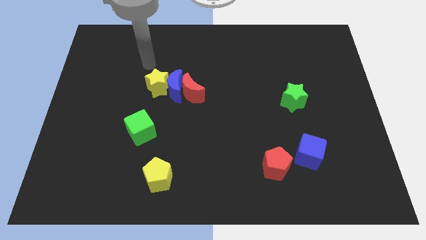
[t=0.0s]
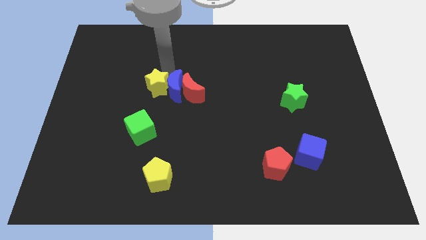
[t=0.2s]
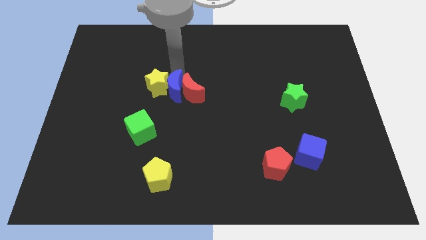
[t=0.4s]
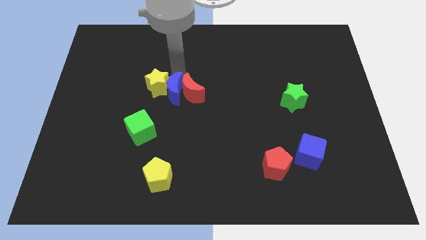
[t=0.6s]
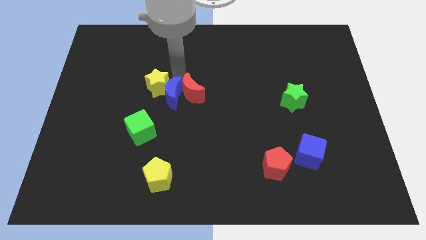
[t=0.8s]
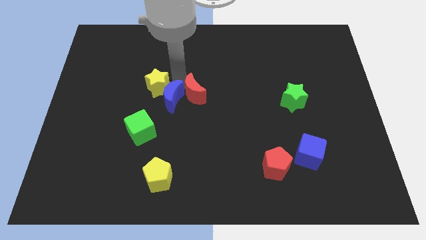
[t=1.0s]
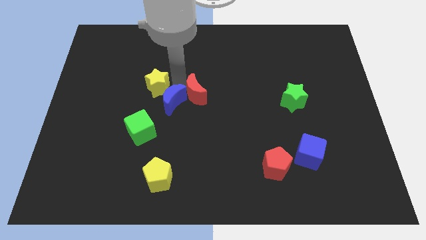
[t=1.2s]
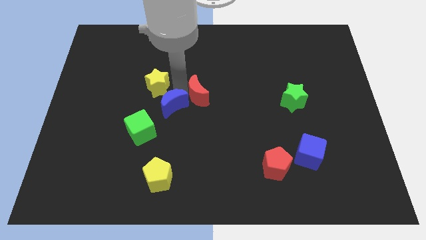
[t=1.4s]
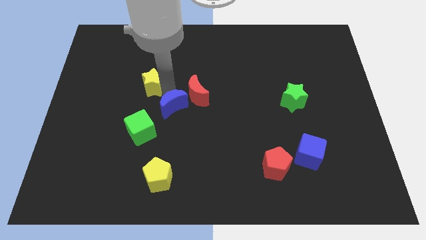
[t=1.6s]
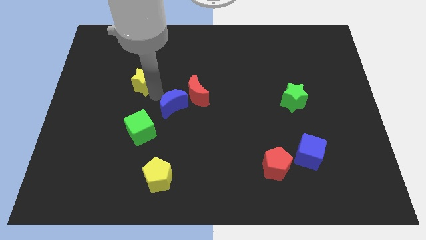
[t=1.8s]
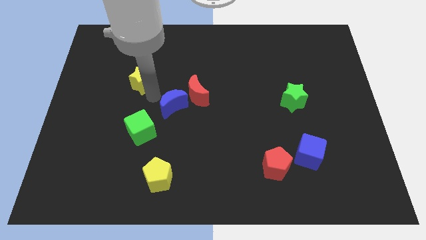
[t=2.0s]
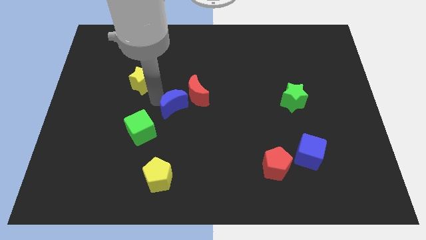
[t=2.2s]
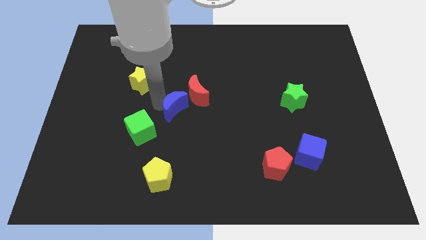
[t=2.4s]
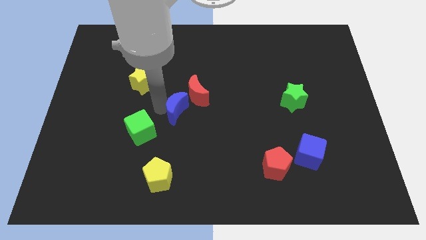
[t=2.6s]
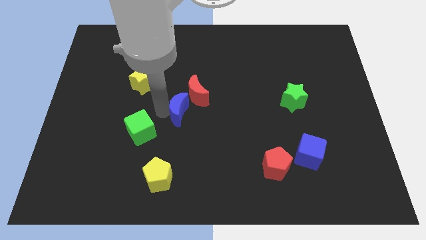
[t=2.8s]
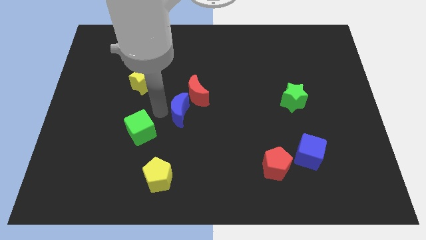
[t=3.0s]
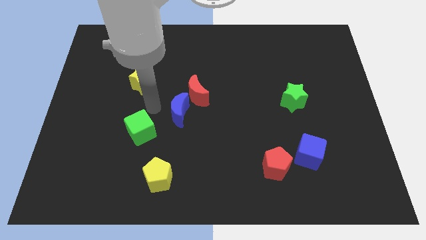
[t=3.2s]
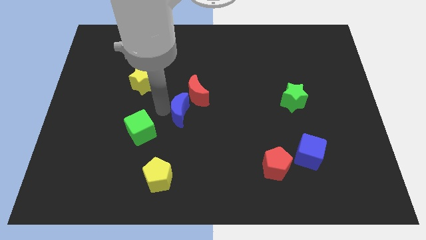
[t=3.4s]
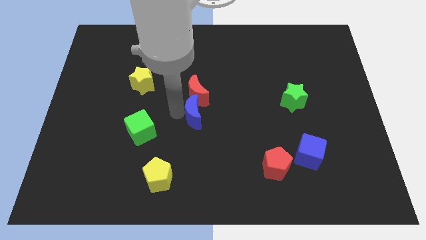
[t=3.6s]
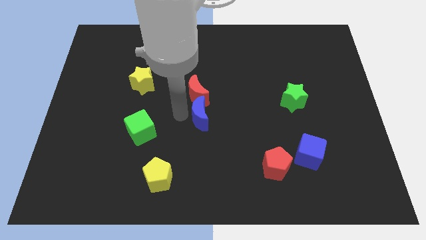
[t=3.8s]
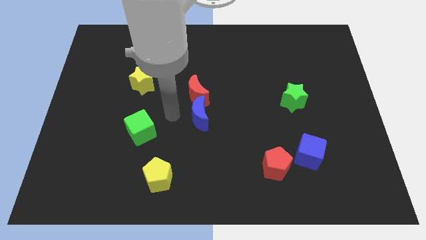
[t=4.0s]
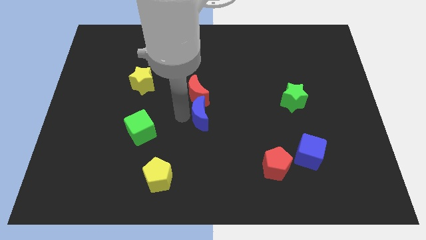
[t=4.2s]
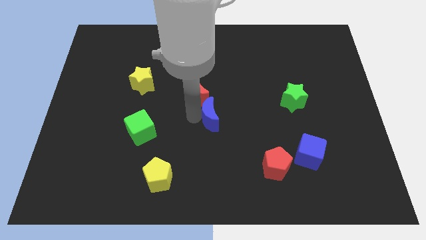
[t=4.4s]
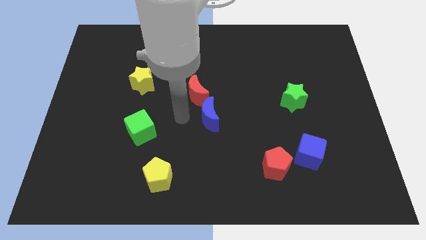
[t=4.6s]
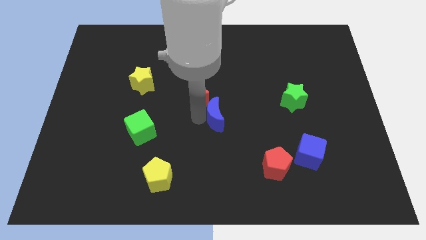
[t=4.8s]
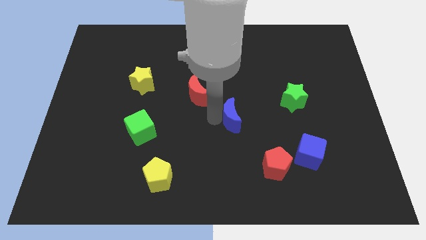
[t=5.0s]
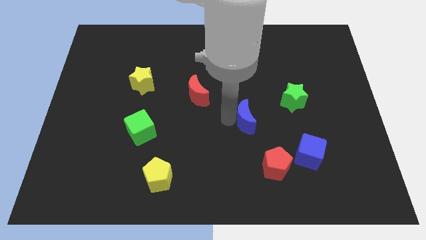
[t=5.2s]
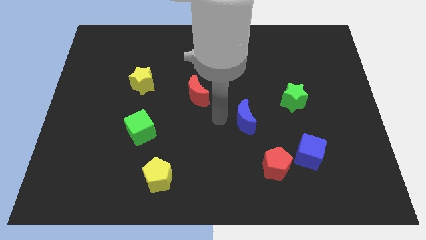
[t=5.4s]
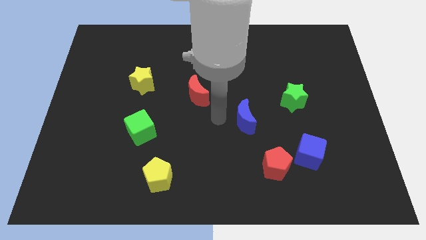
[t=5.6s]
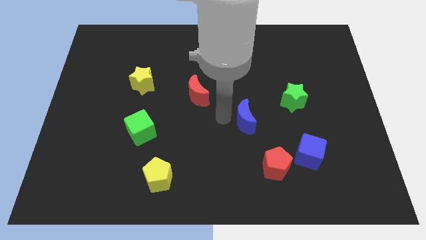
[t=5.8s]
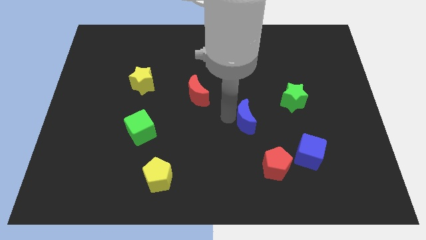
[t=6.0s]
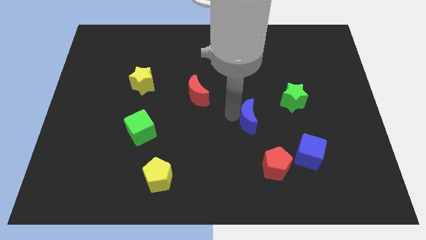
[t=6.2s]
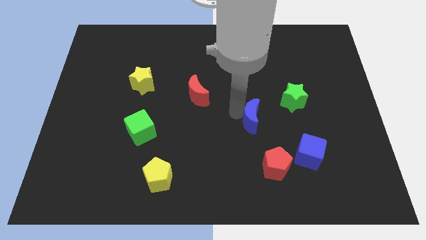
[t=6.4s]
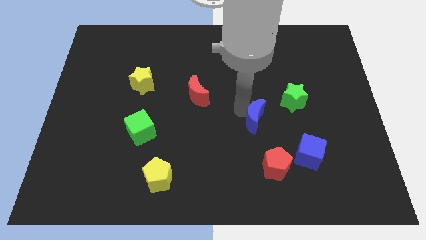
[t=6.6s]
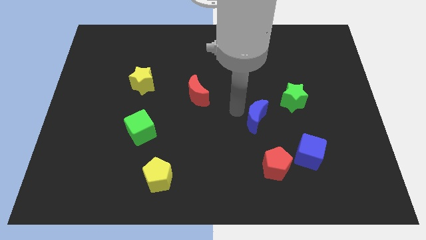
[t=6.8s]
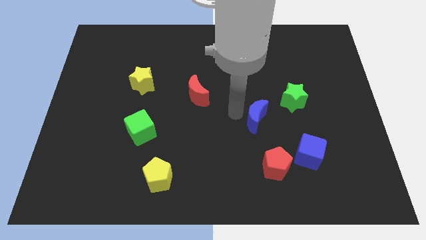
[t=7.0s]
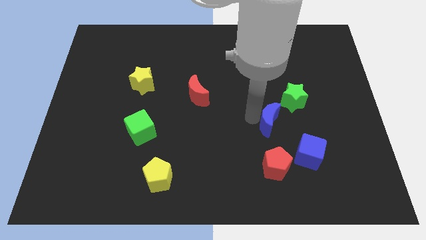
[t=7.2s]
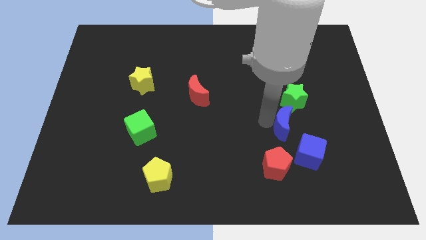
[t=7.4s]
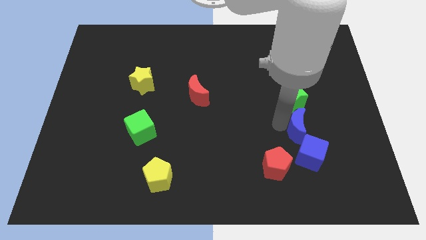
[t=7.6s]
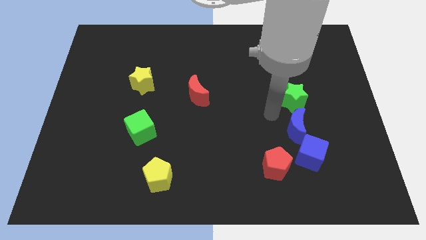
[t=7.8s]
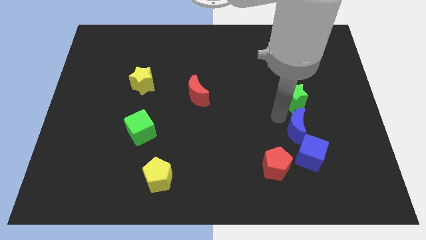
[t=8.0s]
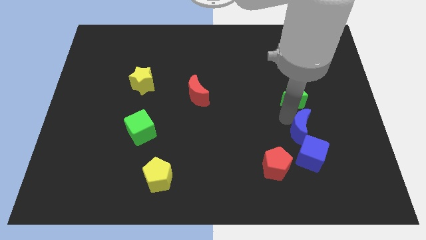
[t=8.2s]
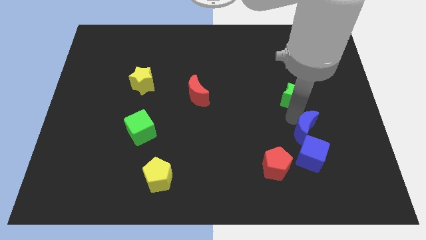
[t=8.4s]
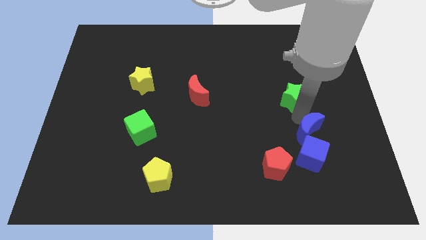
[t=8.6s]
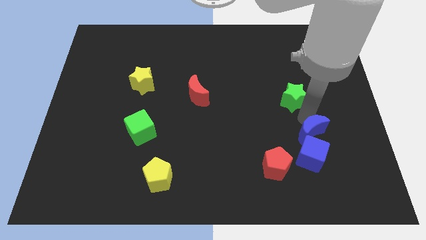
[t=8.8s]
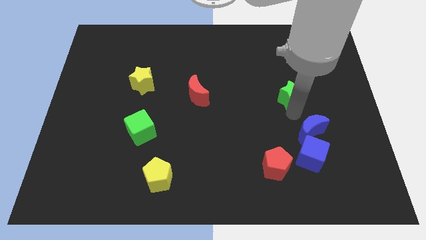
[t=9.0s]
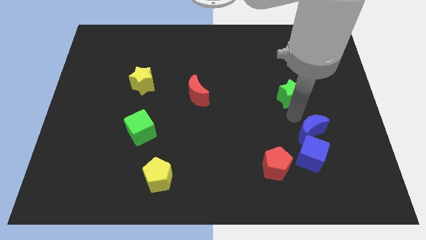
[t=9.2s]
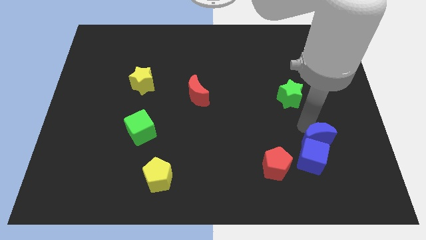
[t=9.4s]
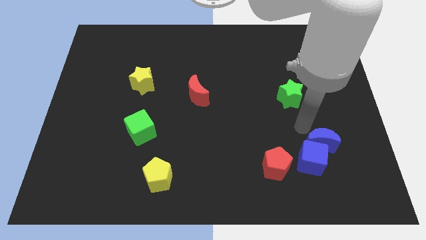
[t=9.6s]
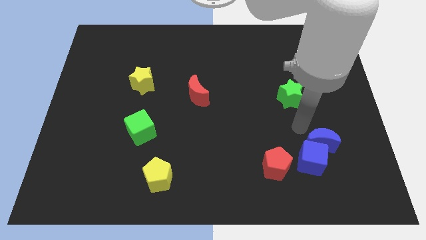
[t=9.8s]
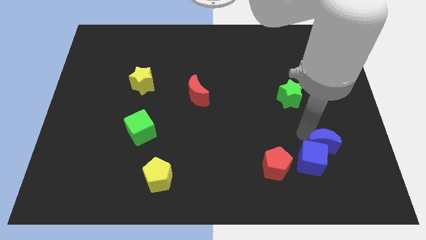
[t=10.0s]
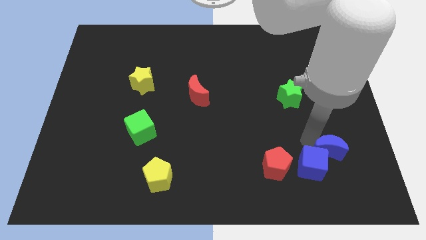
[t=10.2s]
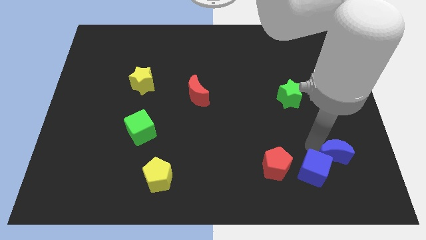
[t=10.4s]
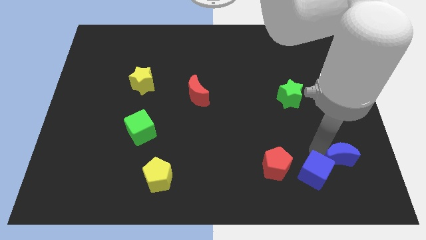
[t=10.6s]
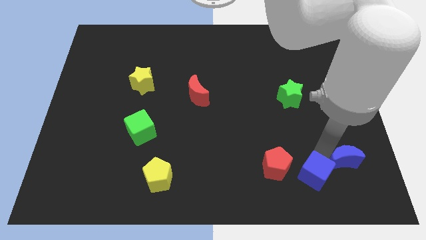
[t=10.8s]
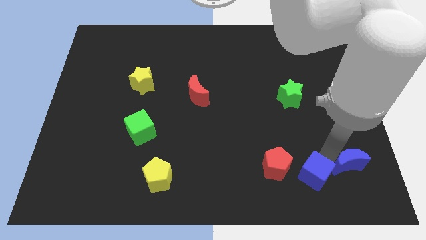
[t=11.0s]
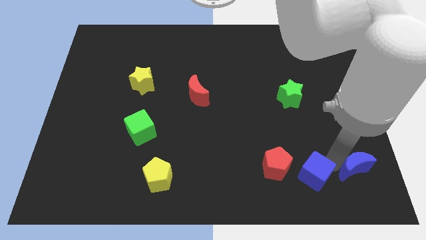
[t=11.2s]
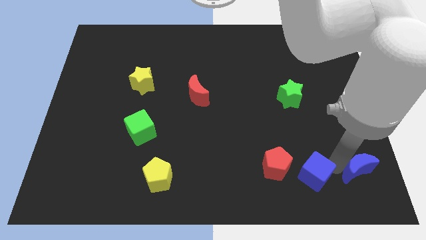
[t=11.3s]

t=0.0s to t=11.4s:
put the blue moon to the bottom right

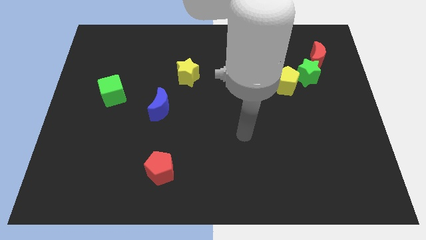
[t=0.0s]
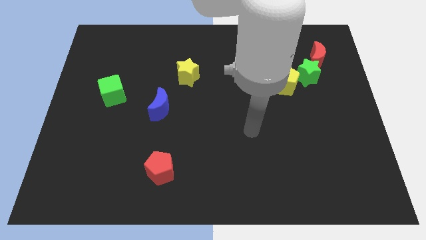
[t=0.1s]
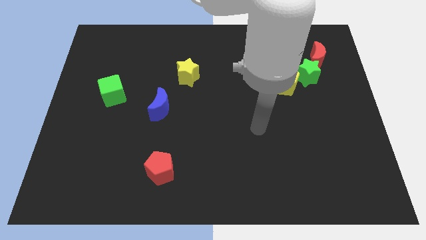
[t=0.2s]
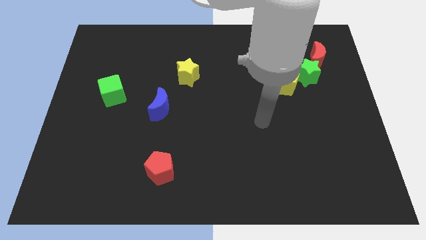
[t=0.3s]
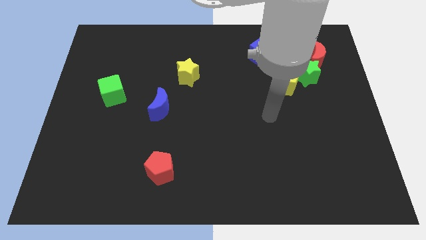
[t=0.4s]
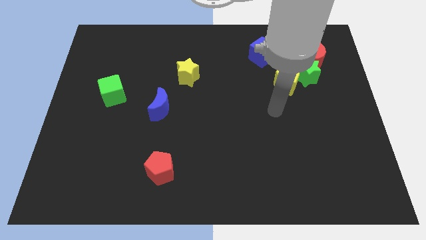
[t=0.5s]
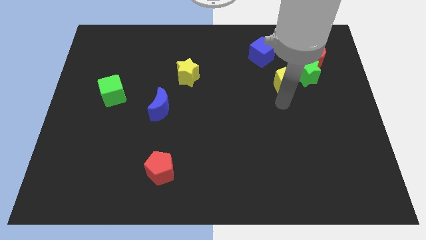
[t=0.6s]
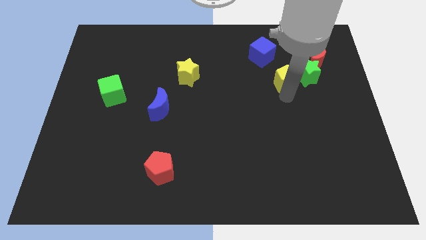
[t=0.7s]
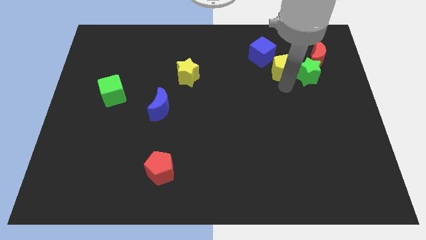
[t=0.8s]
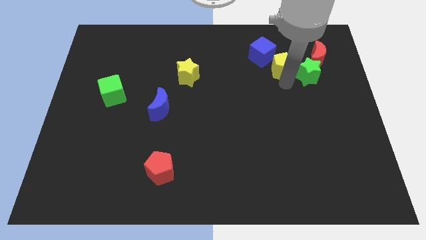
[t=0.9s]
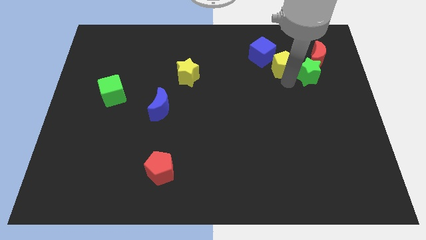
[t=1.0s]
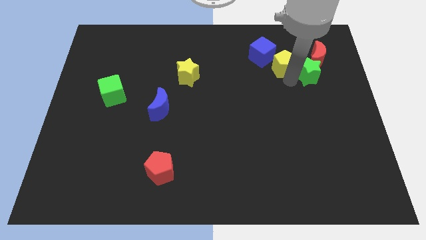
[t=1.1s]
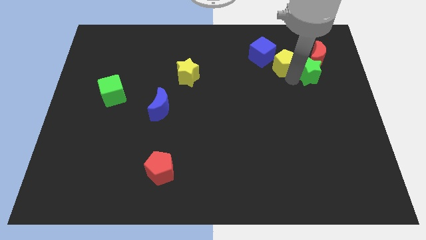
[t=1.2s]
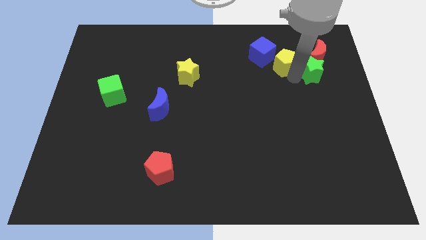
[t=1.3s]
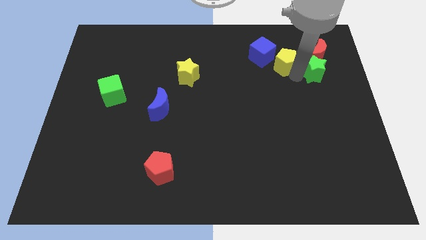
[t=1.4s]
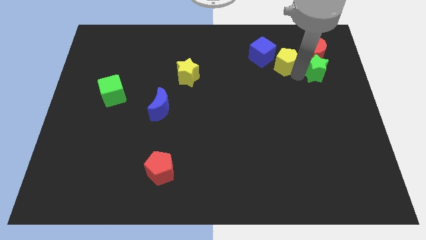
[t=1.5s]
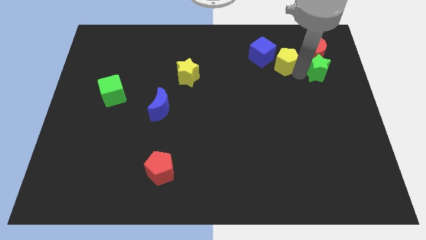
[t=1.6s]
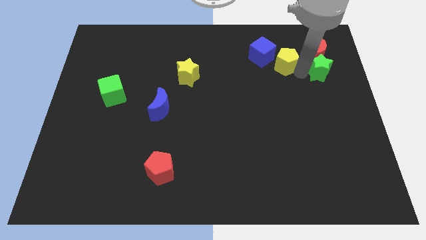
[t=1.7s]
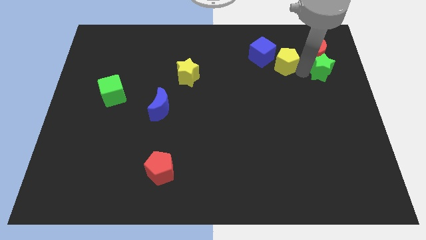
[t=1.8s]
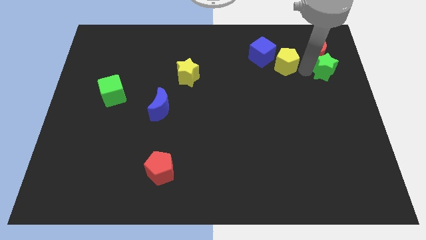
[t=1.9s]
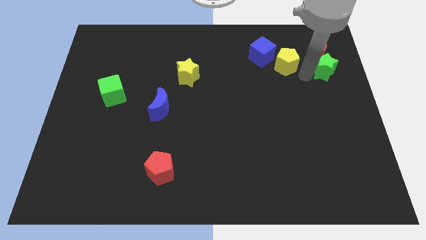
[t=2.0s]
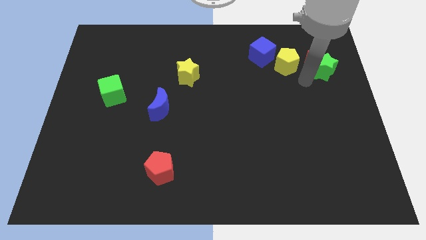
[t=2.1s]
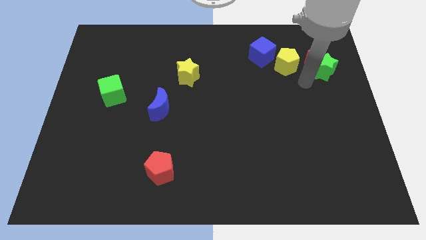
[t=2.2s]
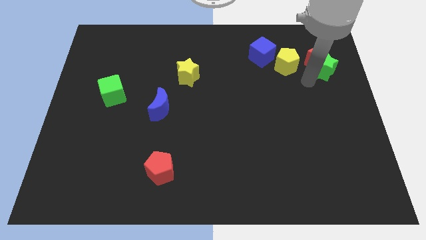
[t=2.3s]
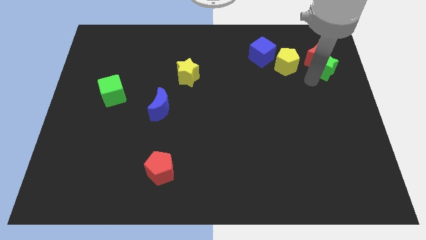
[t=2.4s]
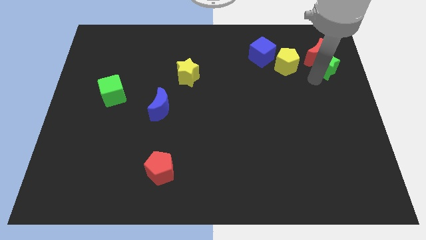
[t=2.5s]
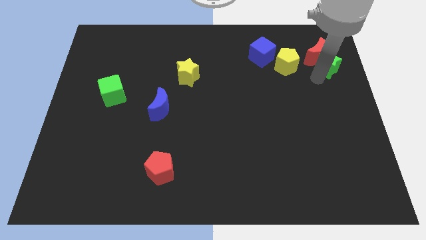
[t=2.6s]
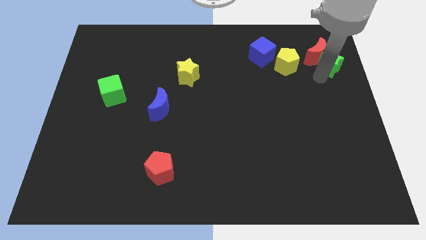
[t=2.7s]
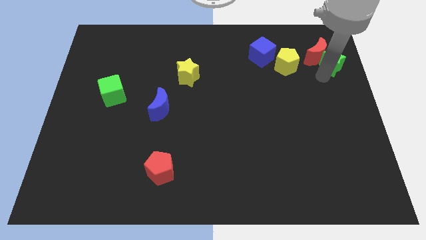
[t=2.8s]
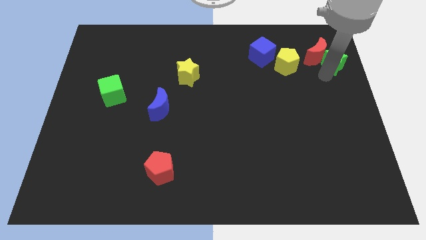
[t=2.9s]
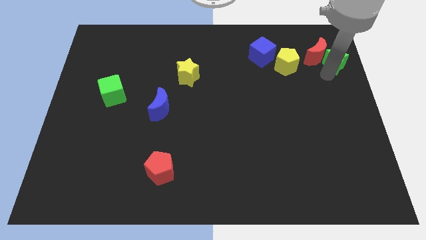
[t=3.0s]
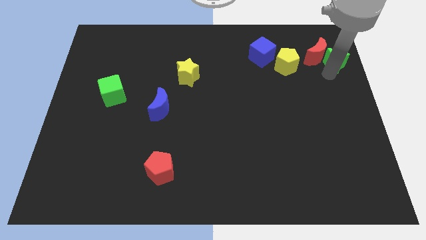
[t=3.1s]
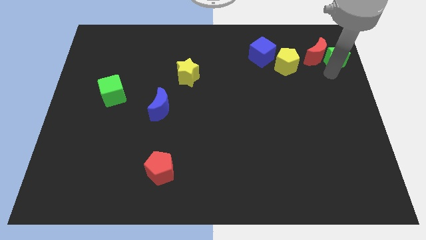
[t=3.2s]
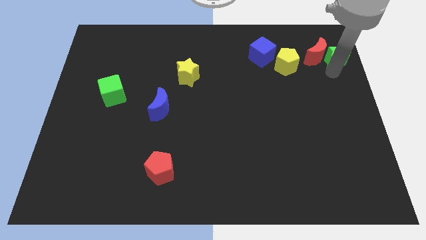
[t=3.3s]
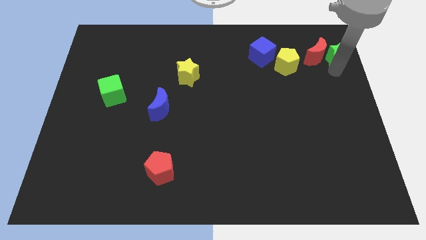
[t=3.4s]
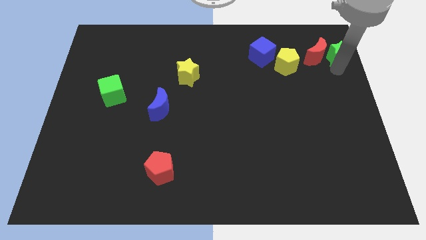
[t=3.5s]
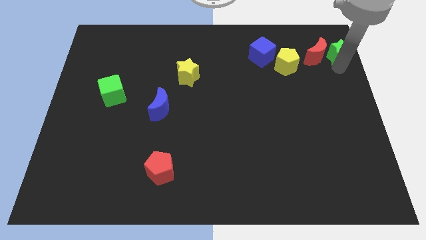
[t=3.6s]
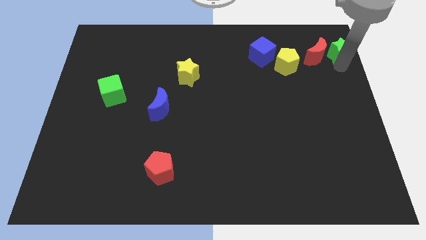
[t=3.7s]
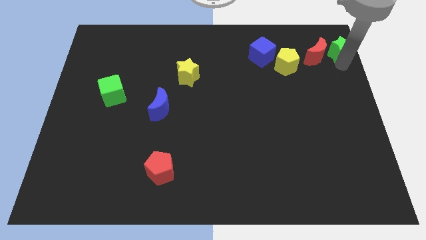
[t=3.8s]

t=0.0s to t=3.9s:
move the green star to the top right corner
